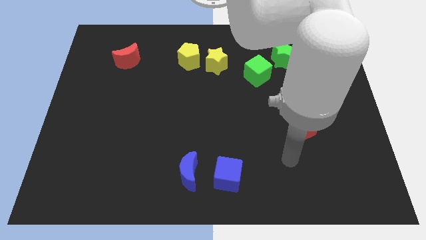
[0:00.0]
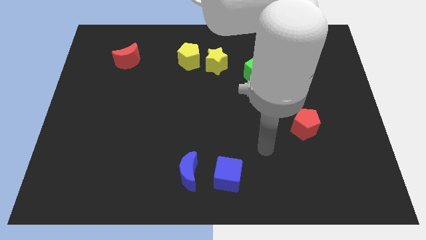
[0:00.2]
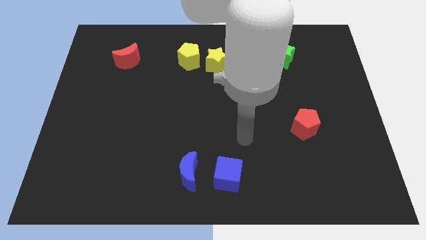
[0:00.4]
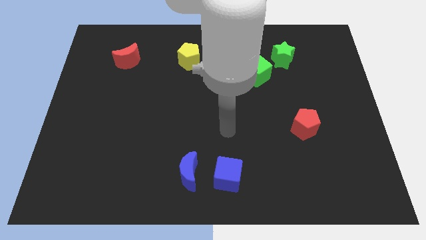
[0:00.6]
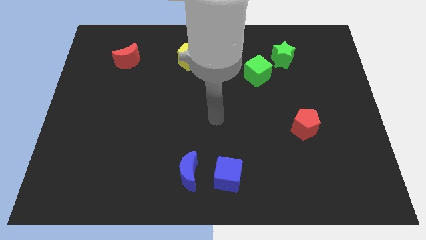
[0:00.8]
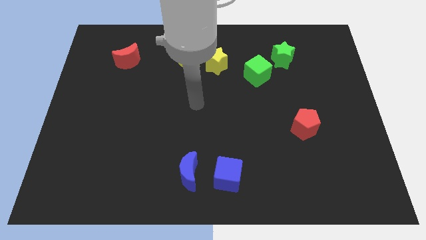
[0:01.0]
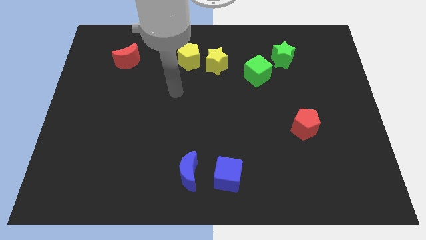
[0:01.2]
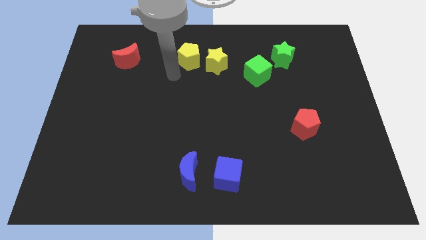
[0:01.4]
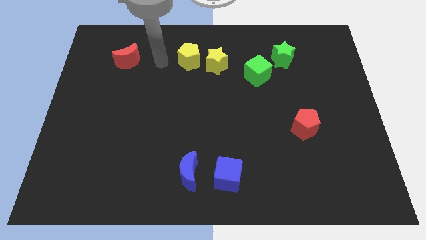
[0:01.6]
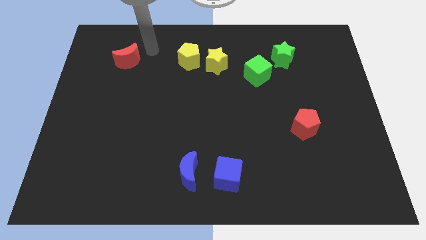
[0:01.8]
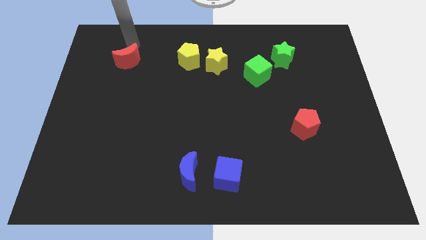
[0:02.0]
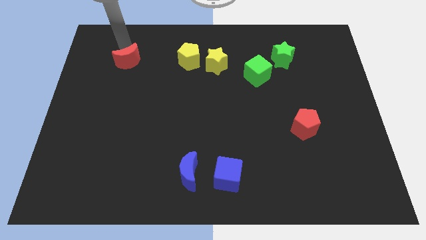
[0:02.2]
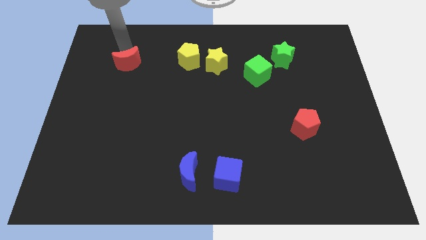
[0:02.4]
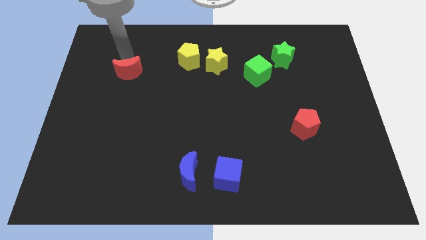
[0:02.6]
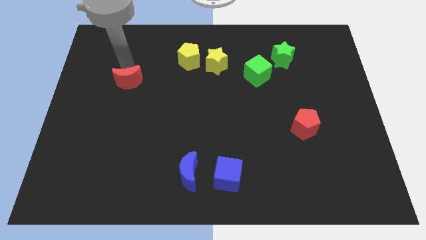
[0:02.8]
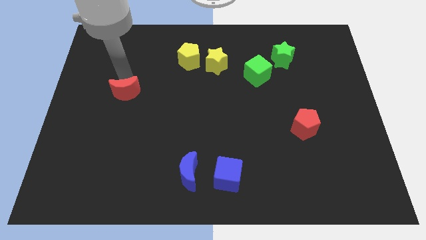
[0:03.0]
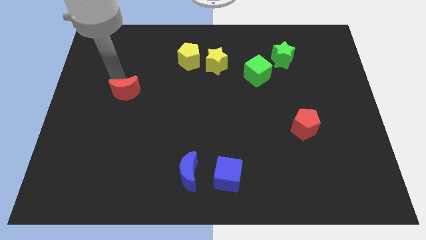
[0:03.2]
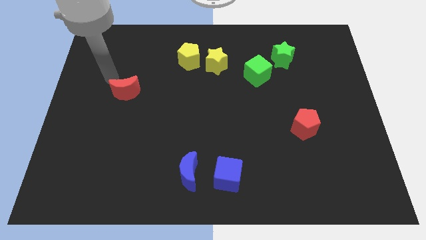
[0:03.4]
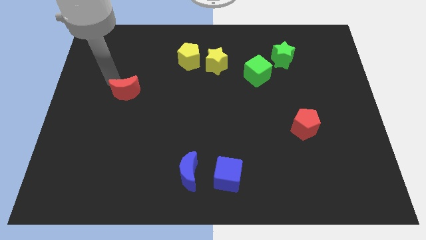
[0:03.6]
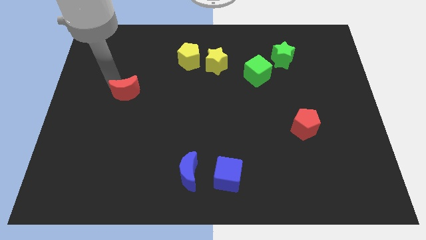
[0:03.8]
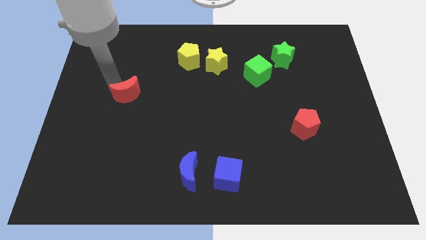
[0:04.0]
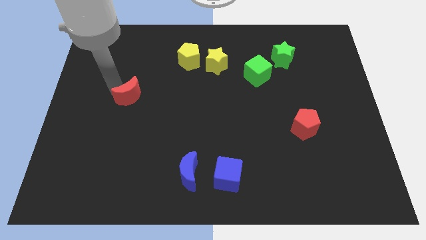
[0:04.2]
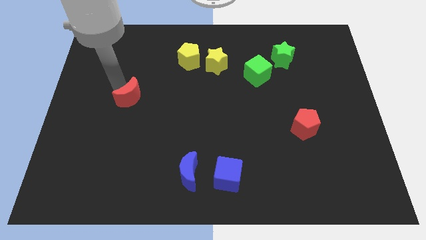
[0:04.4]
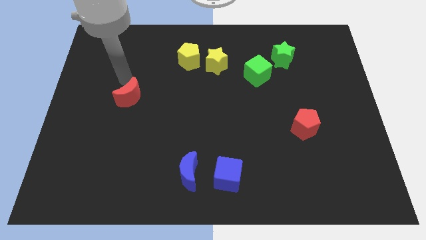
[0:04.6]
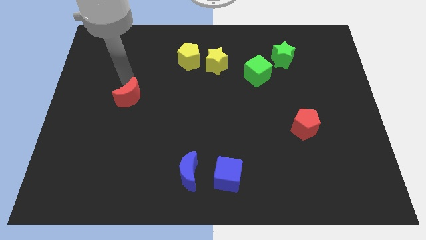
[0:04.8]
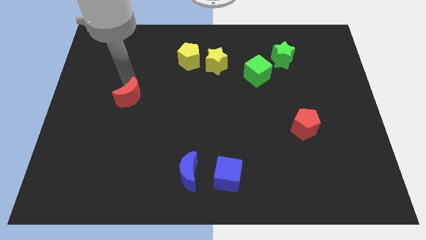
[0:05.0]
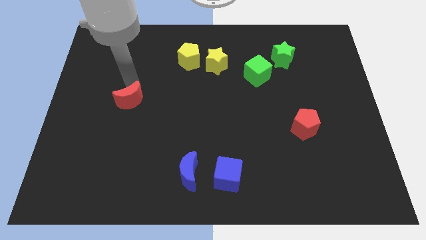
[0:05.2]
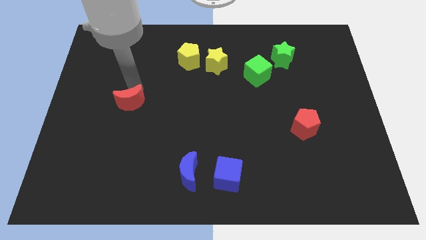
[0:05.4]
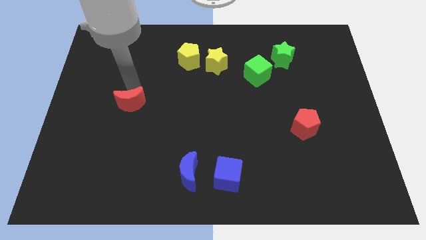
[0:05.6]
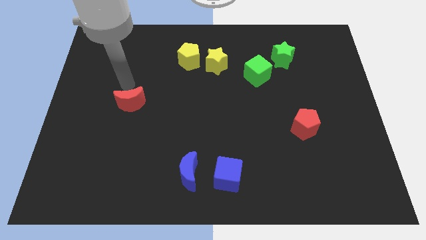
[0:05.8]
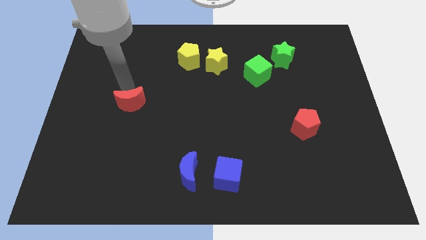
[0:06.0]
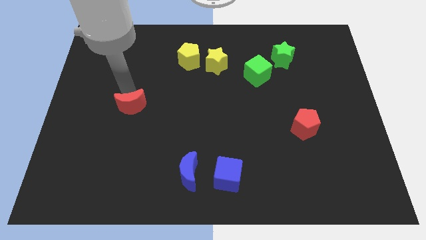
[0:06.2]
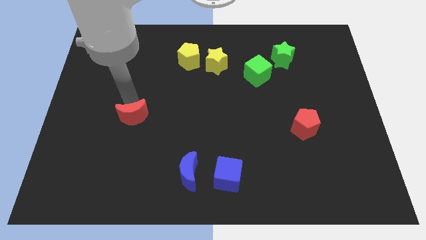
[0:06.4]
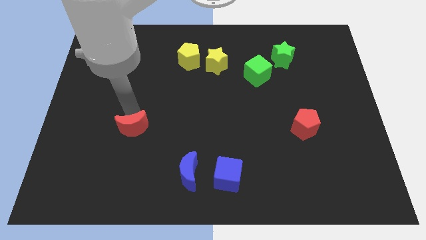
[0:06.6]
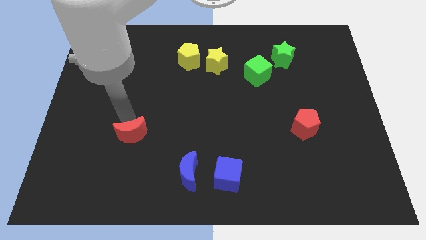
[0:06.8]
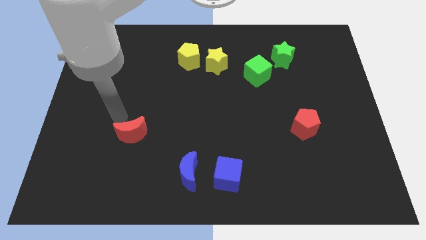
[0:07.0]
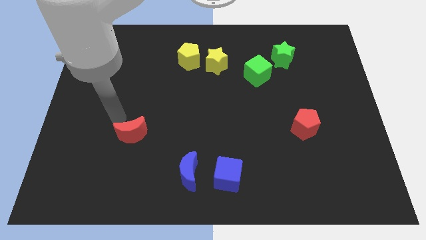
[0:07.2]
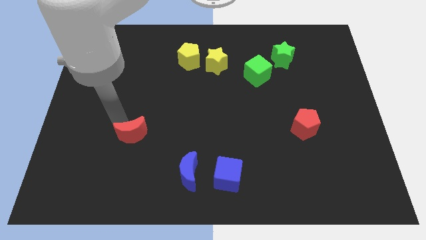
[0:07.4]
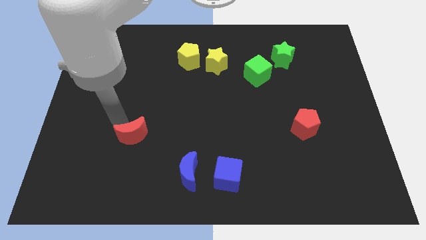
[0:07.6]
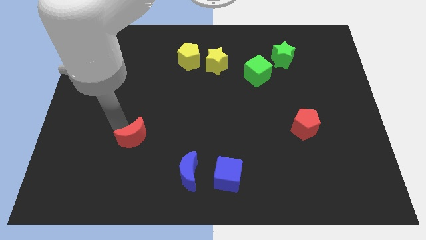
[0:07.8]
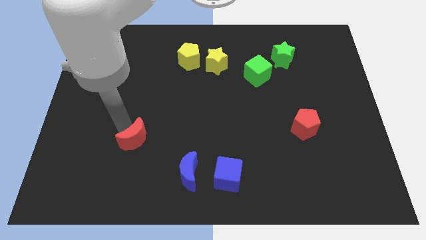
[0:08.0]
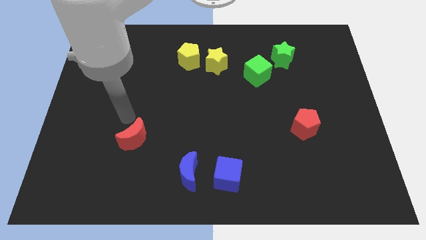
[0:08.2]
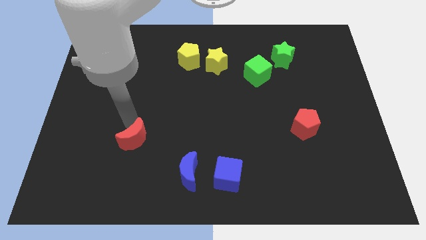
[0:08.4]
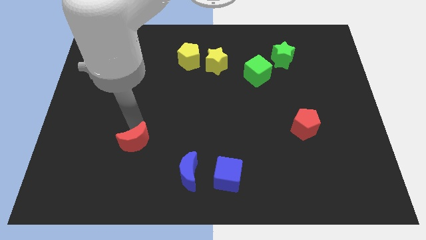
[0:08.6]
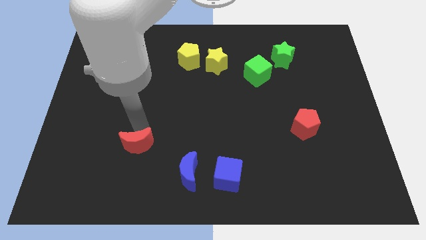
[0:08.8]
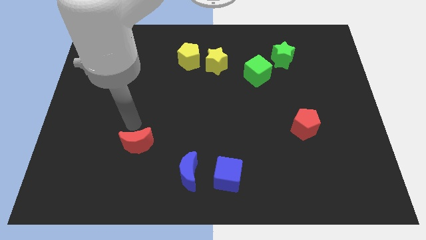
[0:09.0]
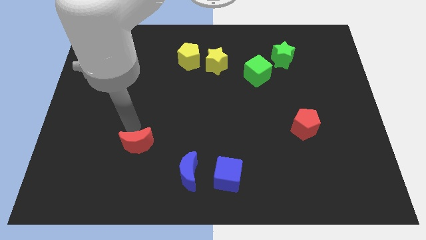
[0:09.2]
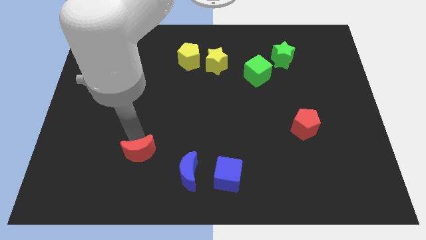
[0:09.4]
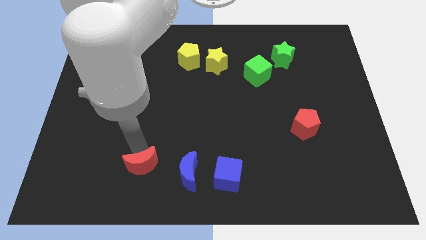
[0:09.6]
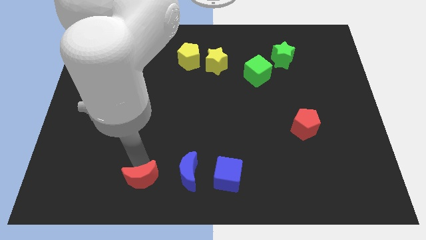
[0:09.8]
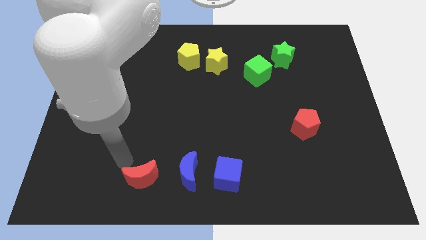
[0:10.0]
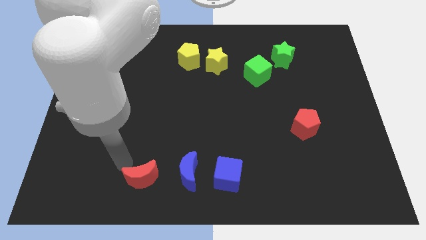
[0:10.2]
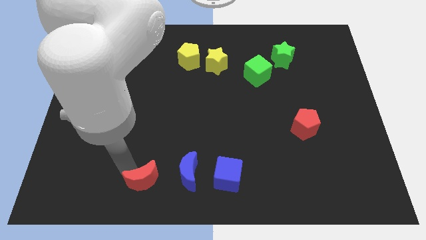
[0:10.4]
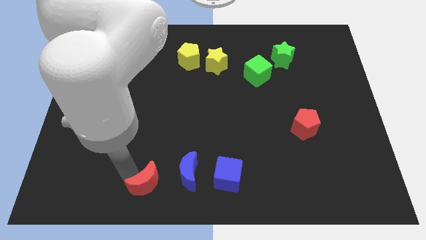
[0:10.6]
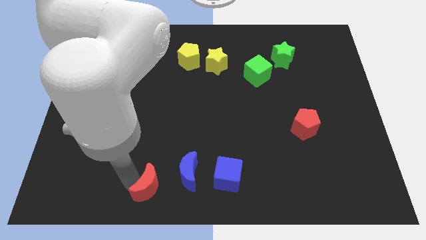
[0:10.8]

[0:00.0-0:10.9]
slide the red moon to the bottom side

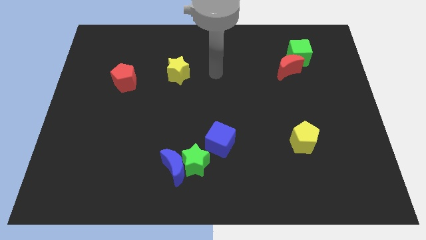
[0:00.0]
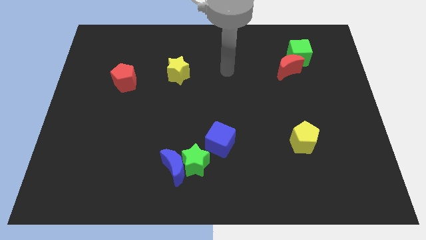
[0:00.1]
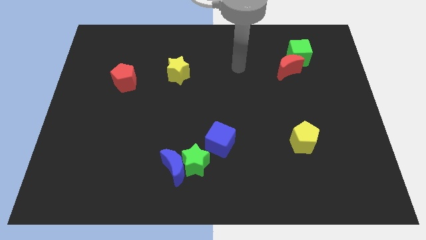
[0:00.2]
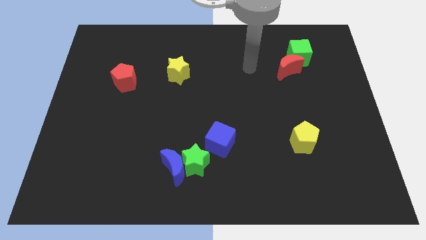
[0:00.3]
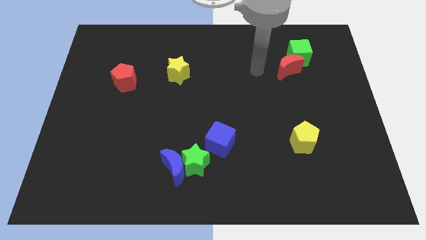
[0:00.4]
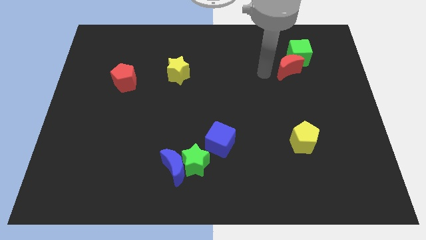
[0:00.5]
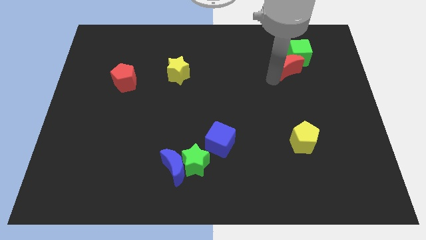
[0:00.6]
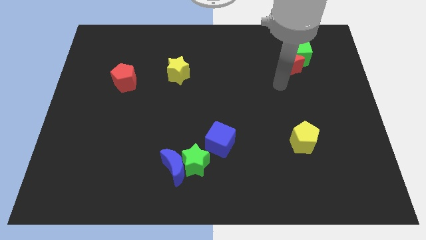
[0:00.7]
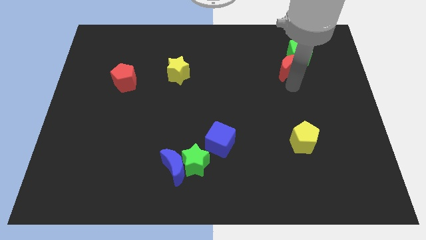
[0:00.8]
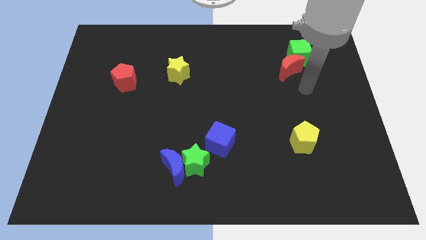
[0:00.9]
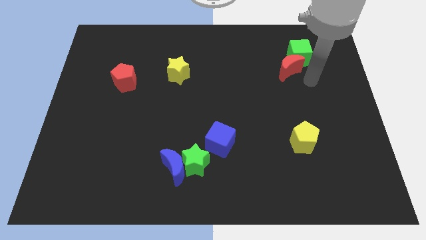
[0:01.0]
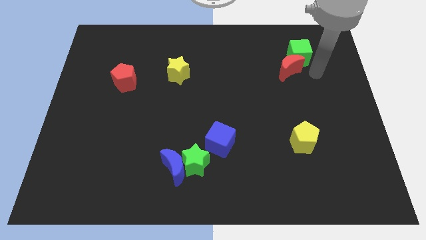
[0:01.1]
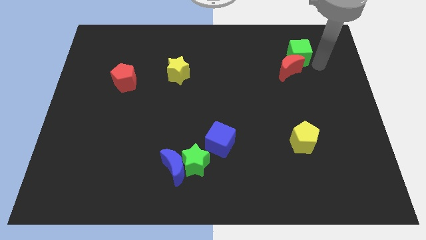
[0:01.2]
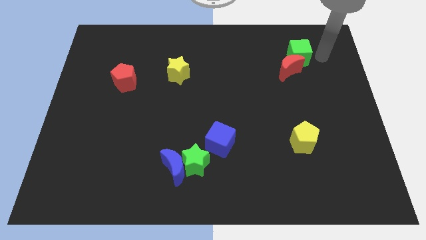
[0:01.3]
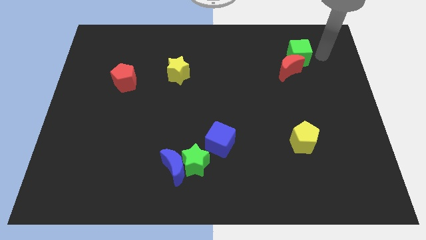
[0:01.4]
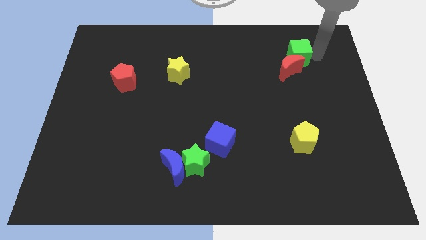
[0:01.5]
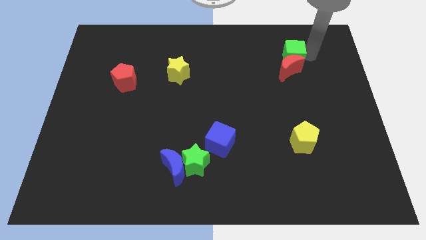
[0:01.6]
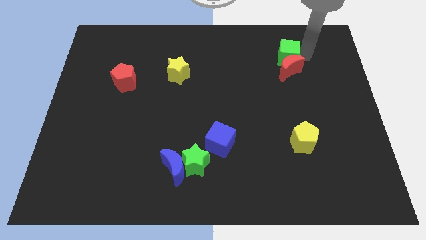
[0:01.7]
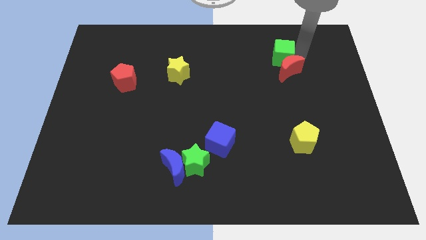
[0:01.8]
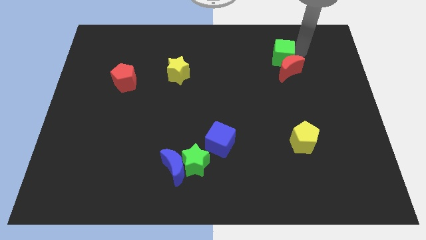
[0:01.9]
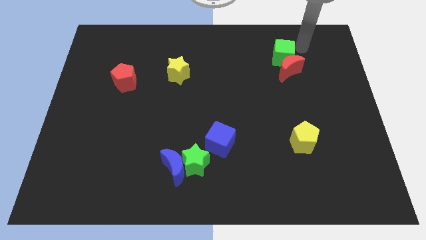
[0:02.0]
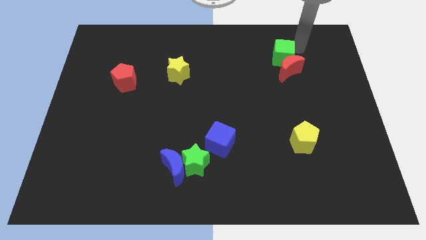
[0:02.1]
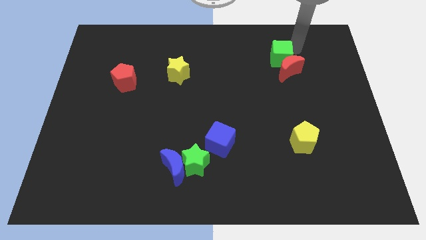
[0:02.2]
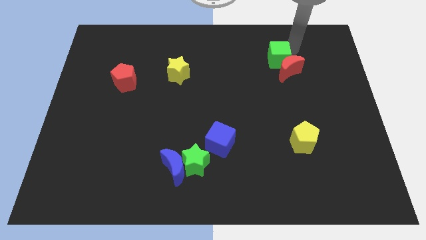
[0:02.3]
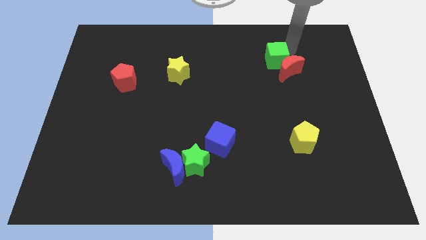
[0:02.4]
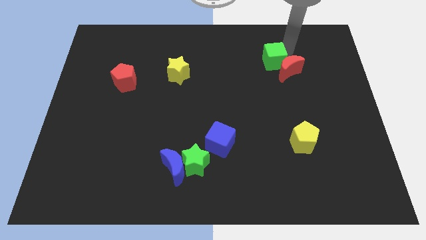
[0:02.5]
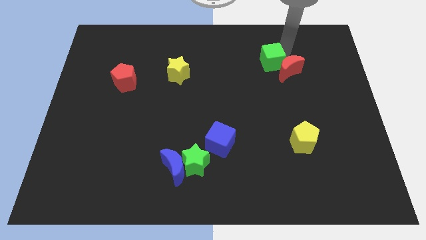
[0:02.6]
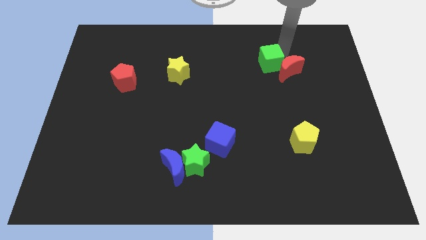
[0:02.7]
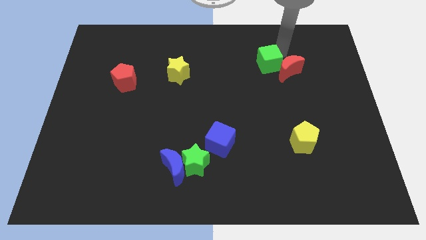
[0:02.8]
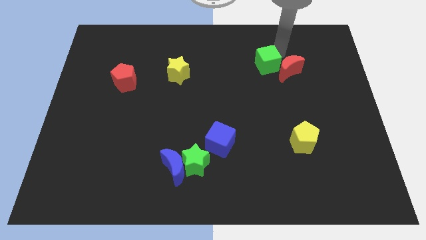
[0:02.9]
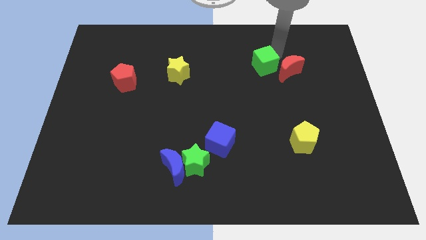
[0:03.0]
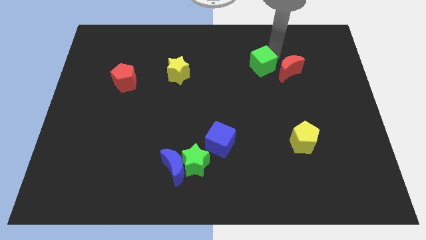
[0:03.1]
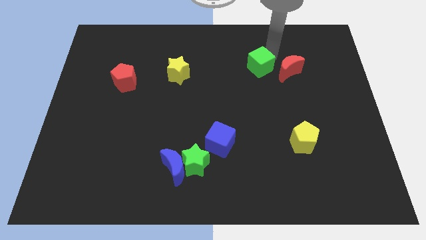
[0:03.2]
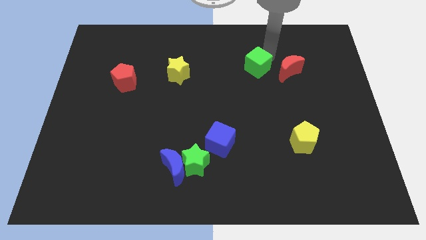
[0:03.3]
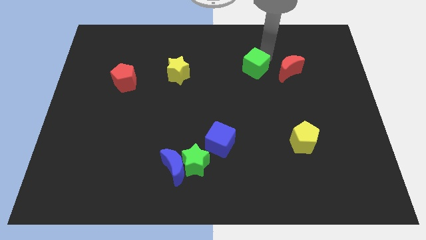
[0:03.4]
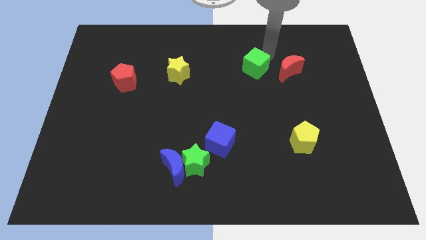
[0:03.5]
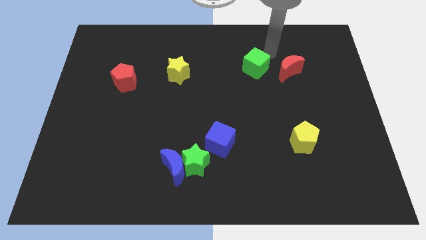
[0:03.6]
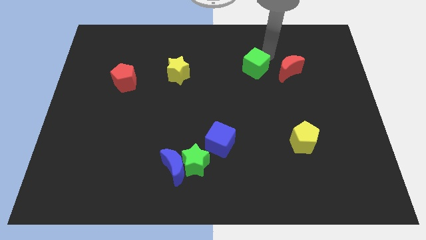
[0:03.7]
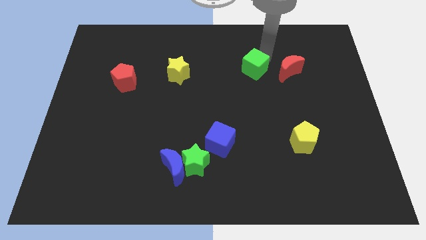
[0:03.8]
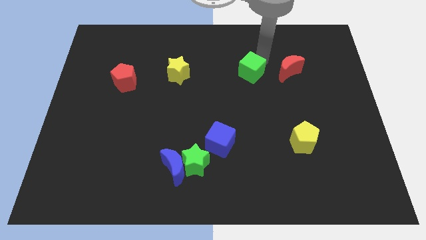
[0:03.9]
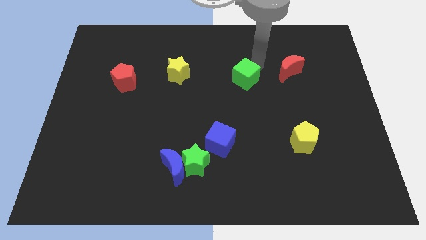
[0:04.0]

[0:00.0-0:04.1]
push the green cube to the middle
